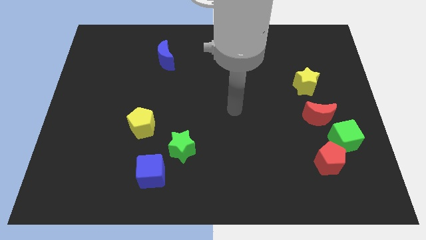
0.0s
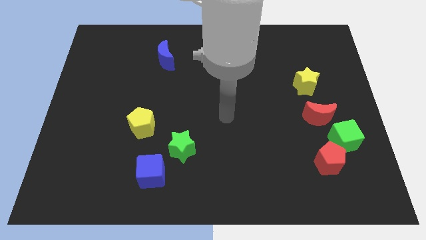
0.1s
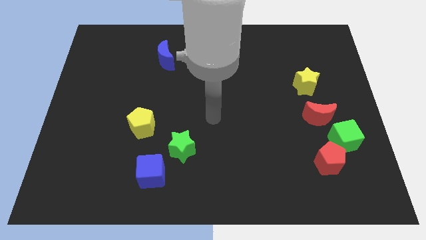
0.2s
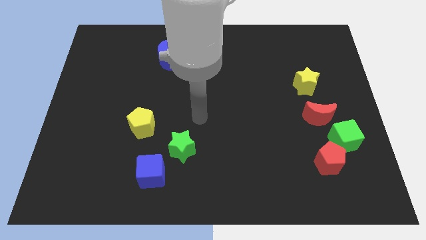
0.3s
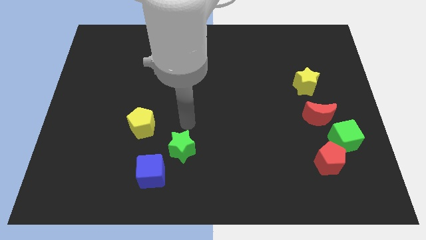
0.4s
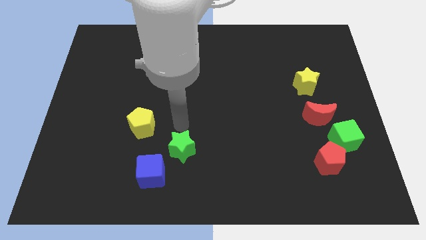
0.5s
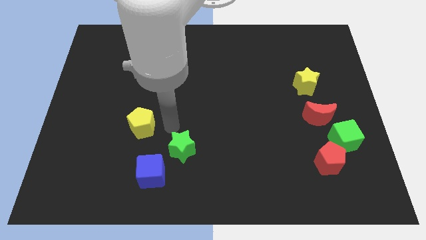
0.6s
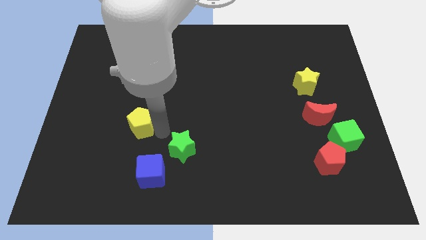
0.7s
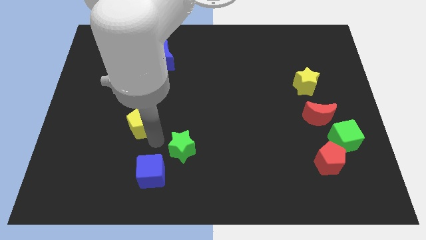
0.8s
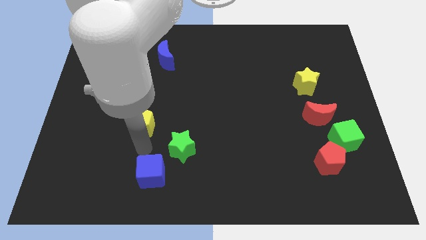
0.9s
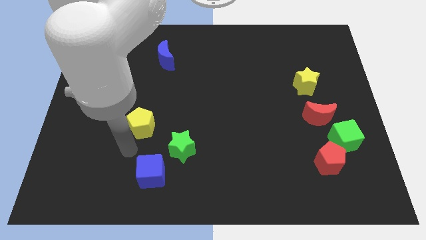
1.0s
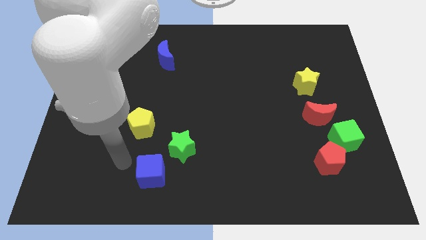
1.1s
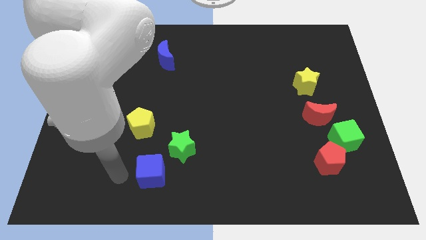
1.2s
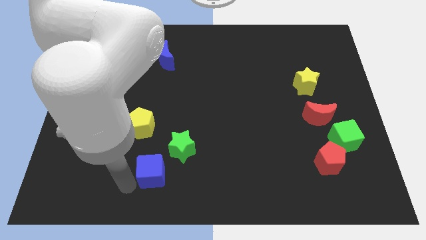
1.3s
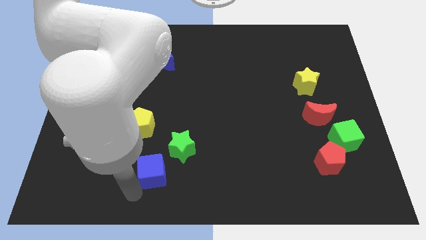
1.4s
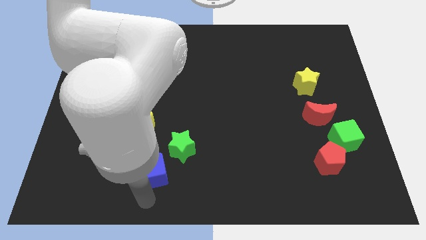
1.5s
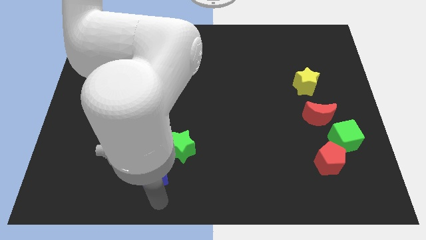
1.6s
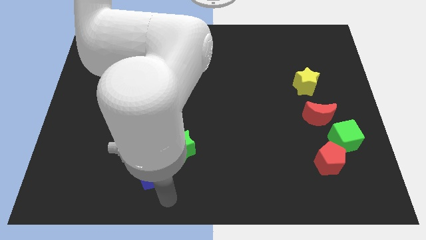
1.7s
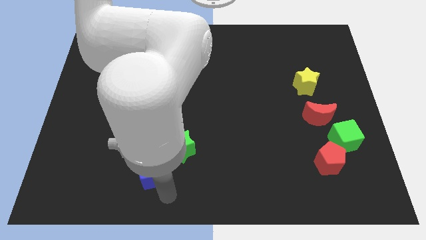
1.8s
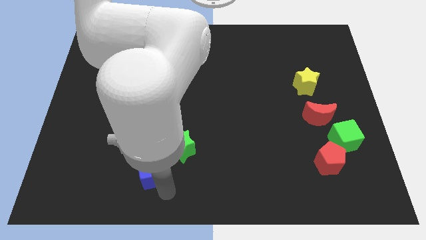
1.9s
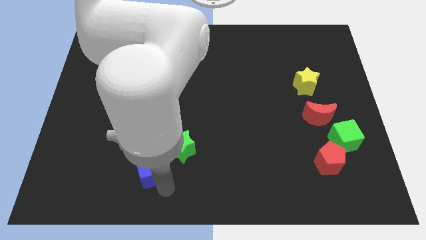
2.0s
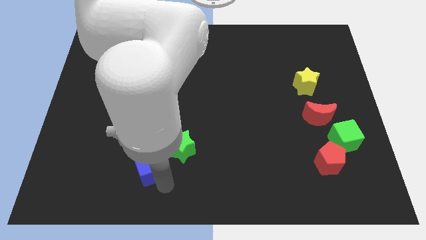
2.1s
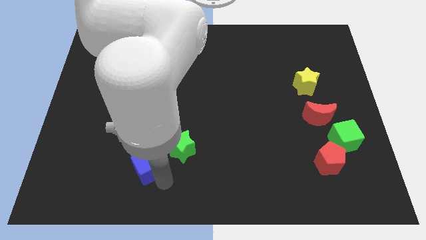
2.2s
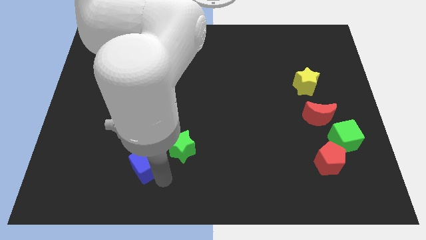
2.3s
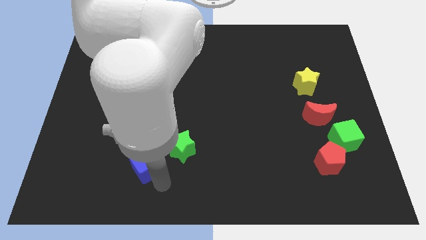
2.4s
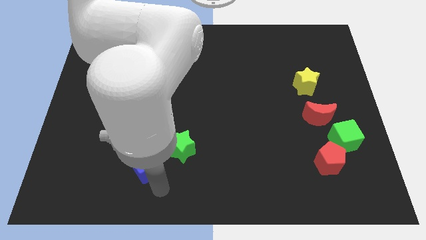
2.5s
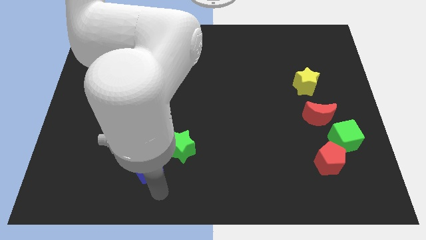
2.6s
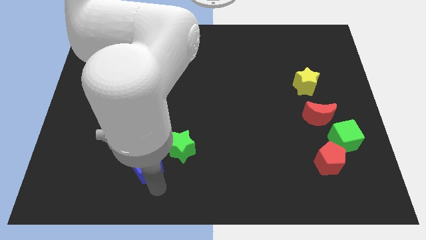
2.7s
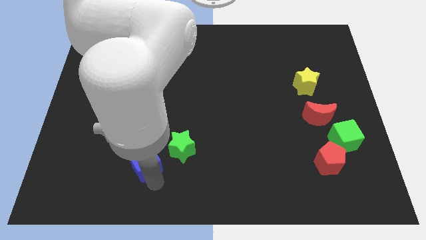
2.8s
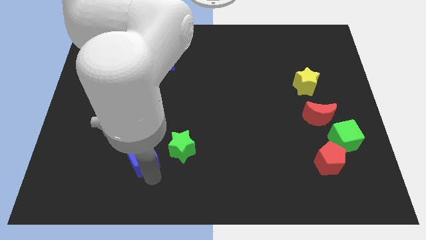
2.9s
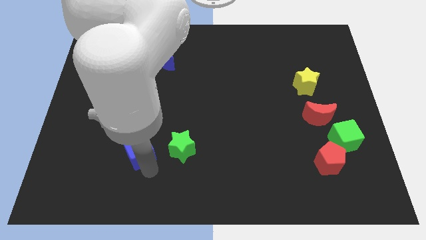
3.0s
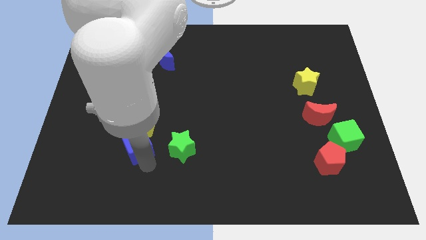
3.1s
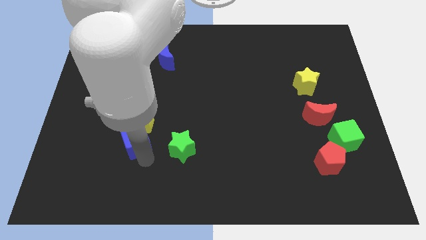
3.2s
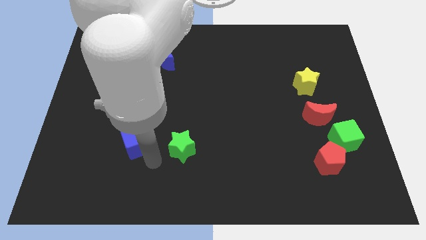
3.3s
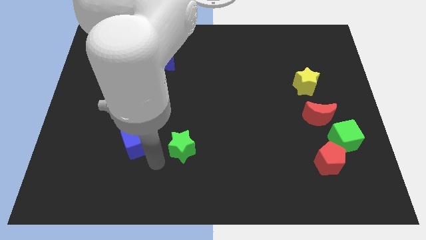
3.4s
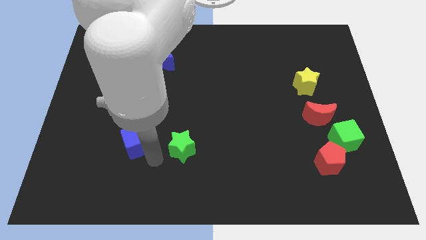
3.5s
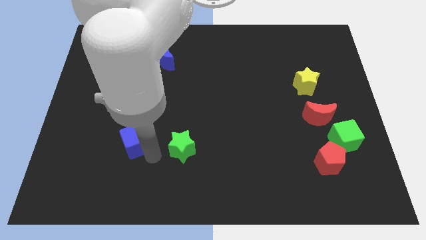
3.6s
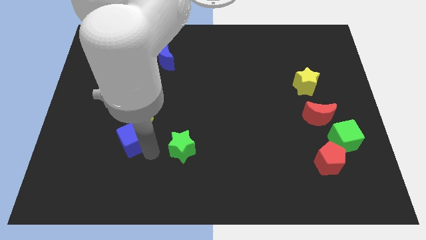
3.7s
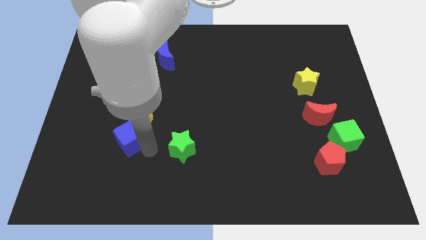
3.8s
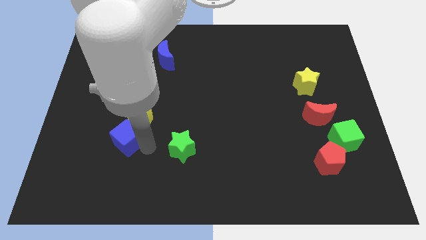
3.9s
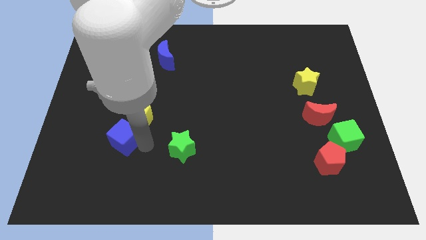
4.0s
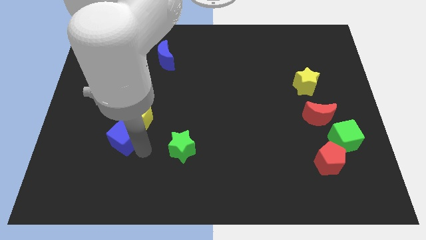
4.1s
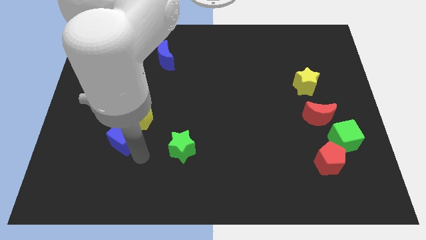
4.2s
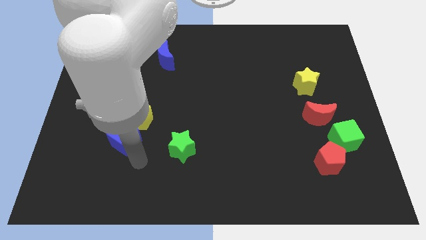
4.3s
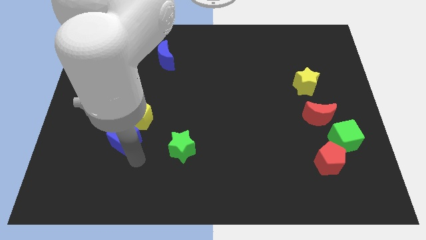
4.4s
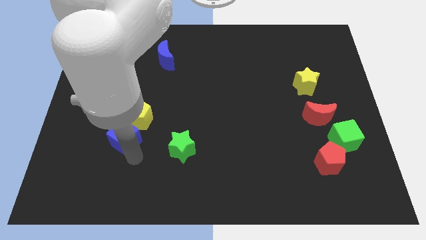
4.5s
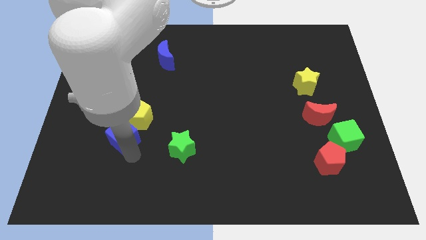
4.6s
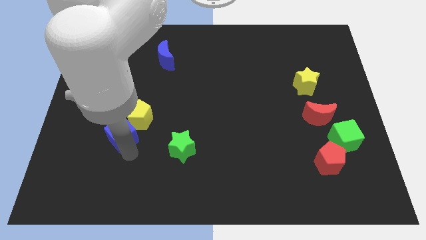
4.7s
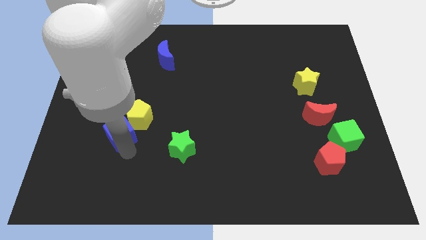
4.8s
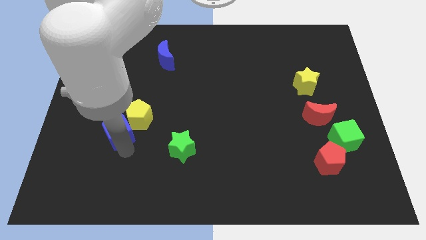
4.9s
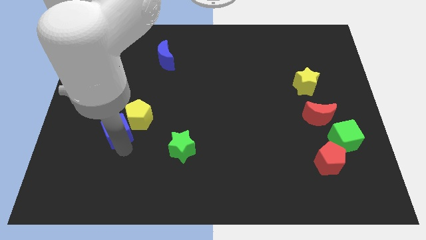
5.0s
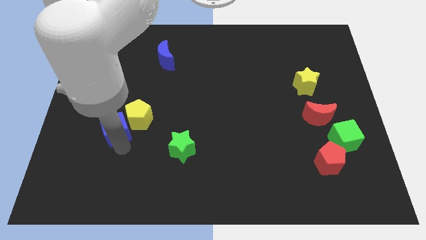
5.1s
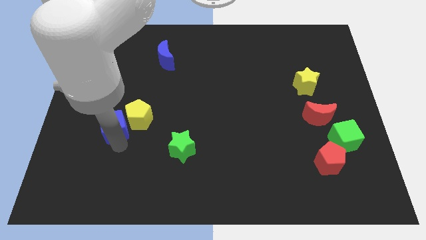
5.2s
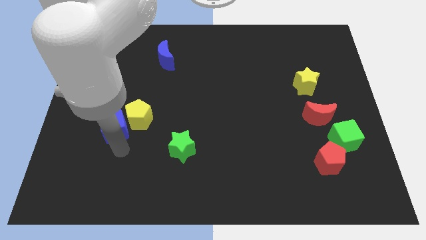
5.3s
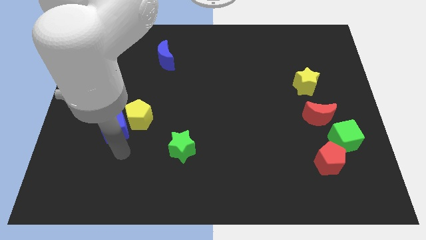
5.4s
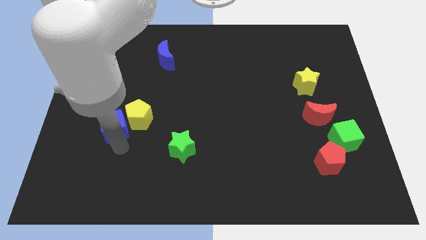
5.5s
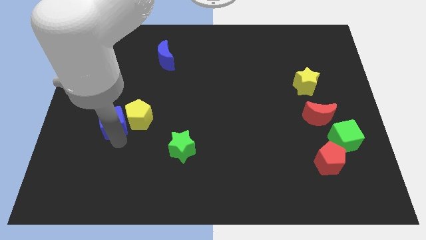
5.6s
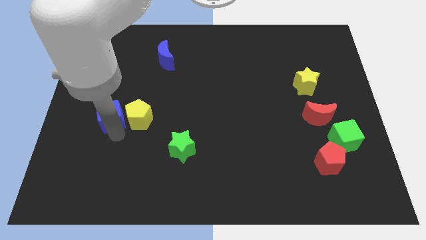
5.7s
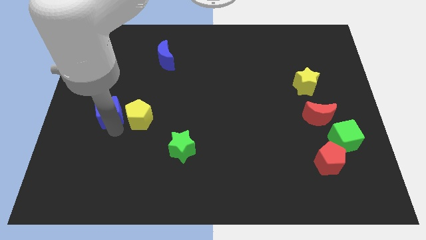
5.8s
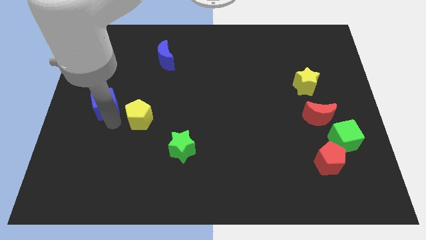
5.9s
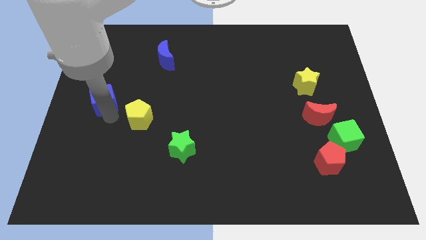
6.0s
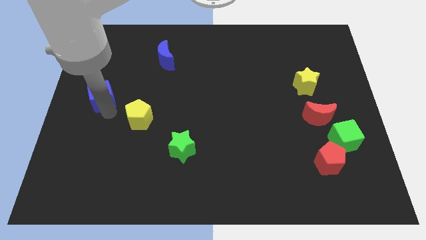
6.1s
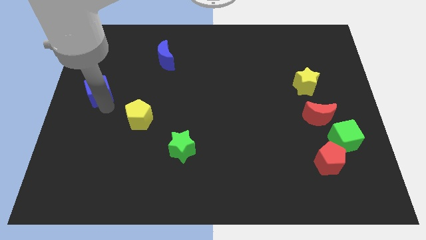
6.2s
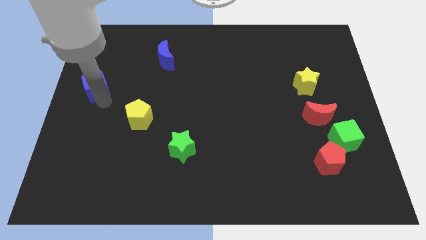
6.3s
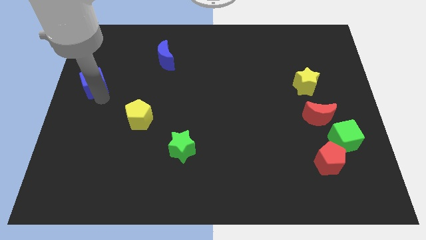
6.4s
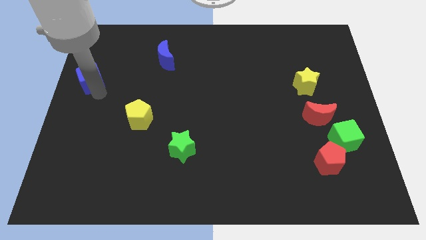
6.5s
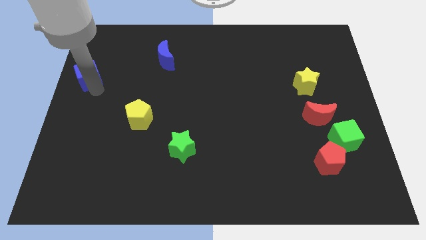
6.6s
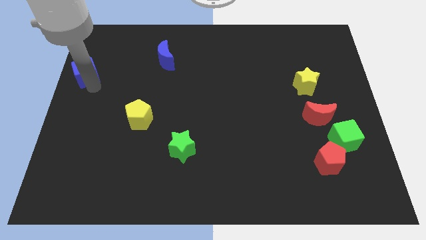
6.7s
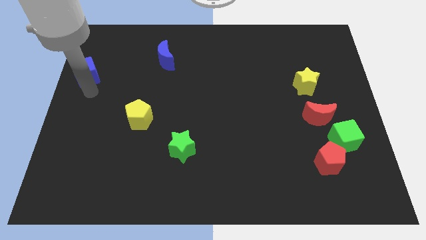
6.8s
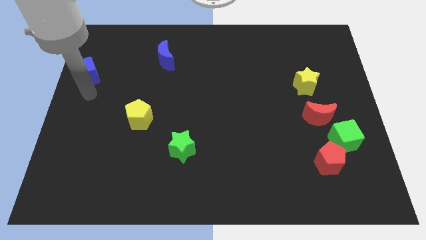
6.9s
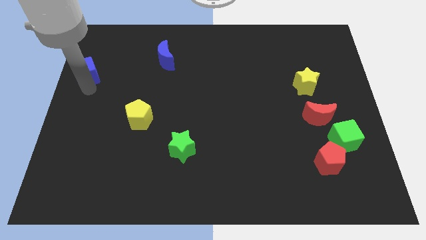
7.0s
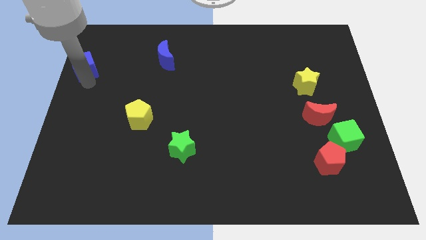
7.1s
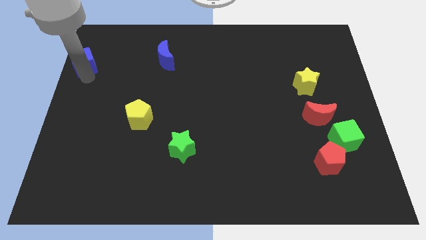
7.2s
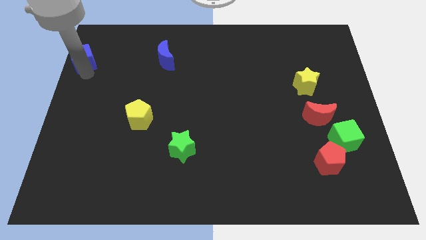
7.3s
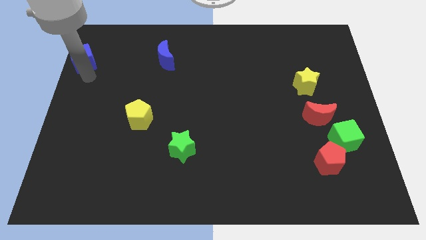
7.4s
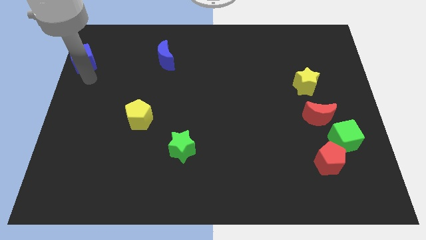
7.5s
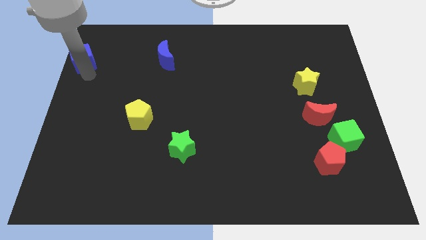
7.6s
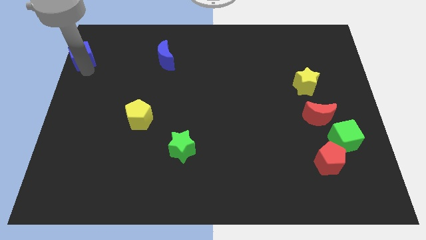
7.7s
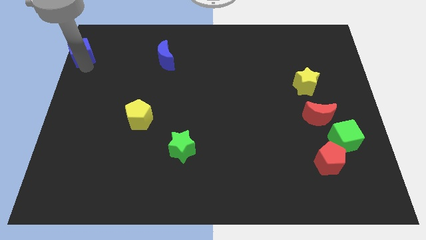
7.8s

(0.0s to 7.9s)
push the blue cube to the top left
